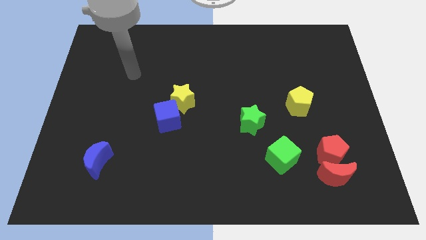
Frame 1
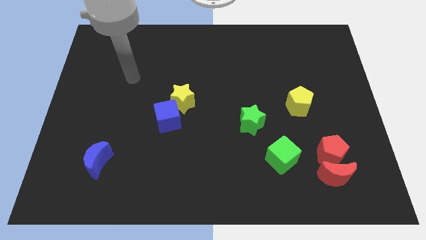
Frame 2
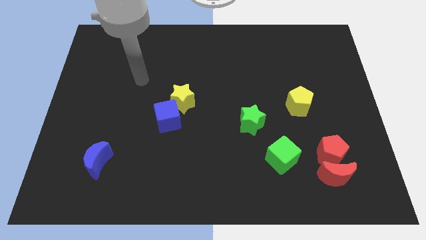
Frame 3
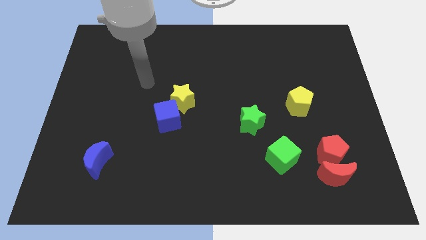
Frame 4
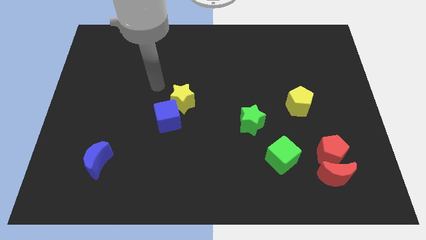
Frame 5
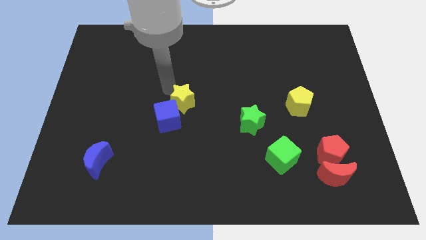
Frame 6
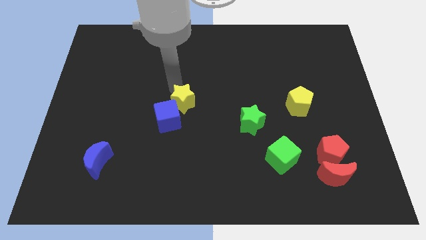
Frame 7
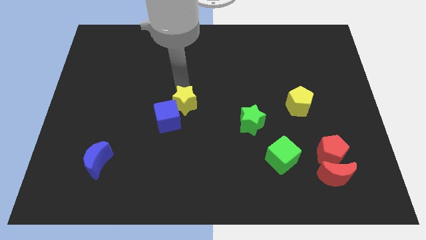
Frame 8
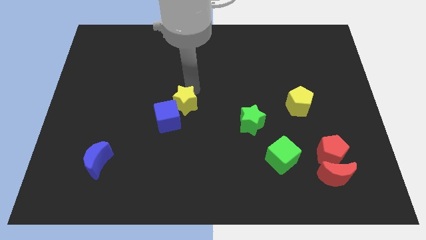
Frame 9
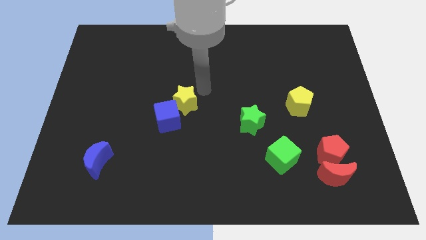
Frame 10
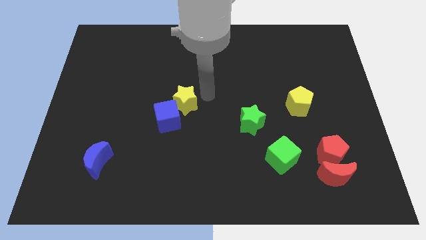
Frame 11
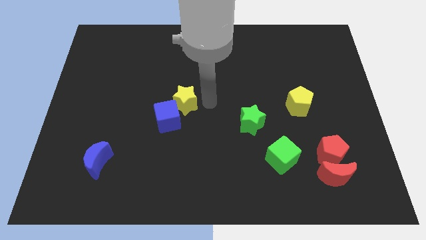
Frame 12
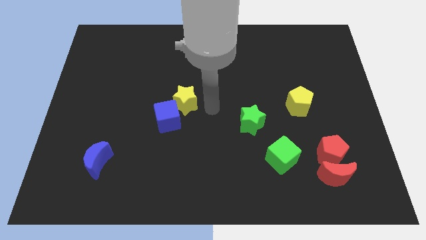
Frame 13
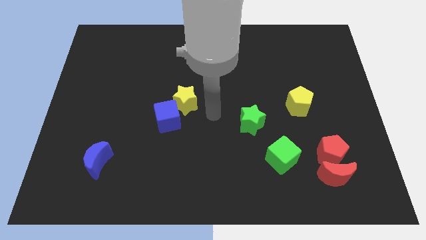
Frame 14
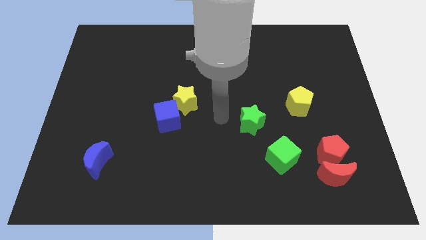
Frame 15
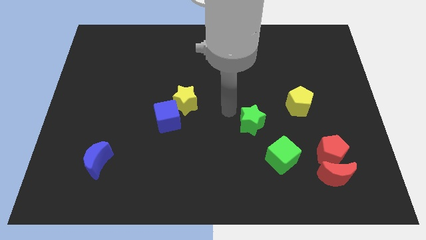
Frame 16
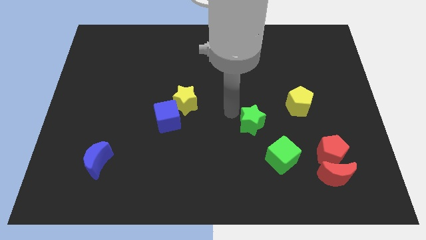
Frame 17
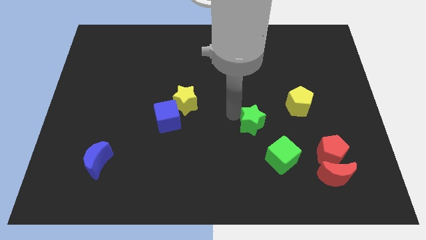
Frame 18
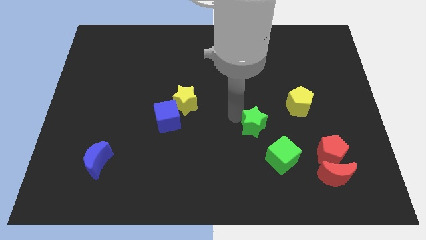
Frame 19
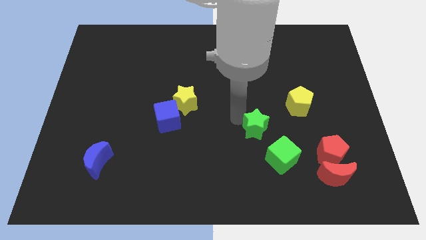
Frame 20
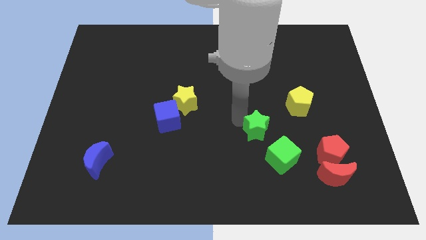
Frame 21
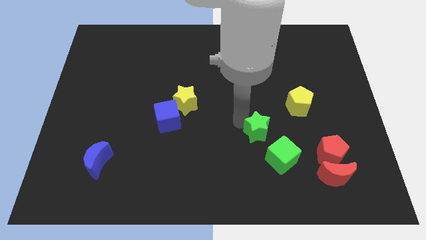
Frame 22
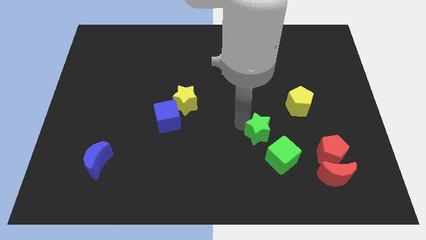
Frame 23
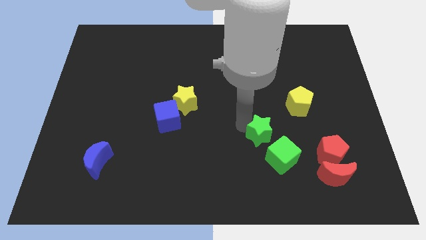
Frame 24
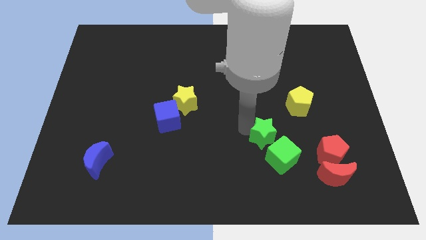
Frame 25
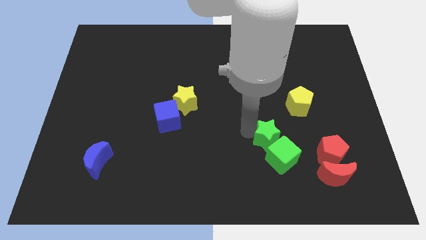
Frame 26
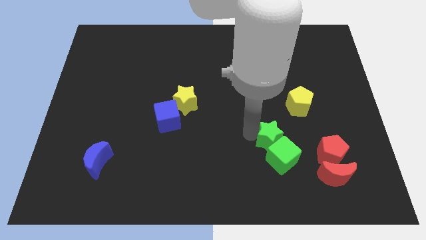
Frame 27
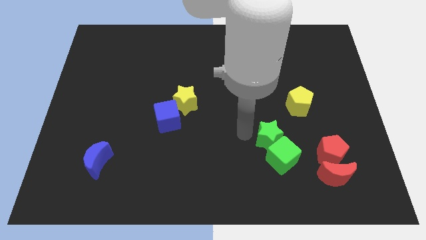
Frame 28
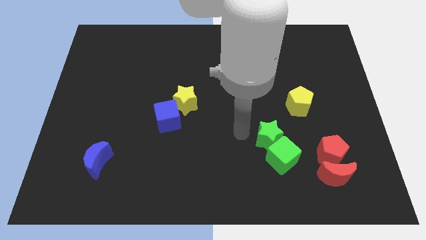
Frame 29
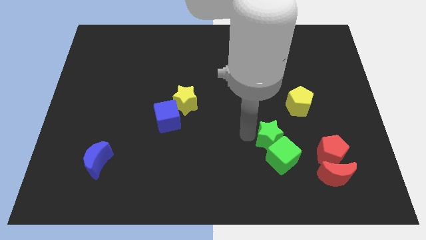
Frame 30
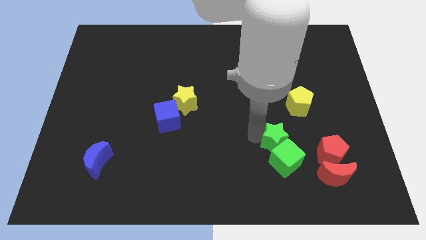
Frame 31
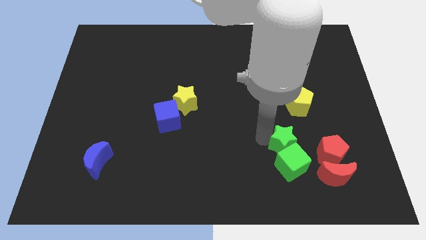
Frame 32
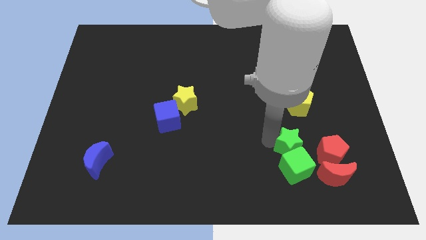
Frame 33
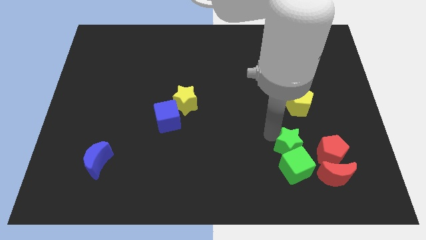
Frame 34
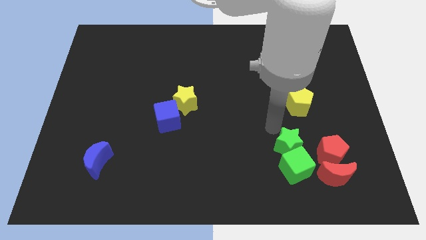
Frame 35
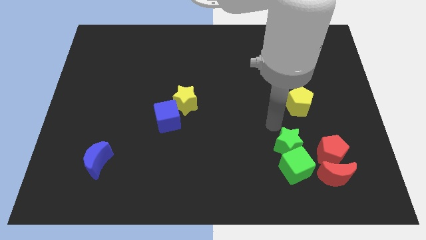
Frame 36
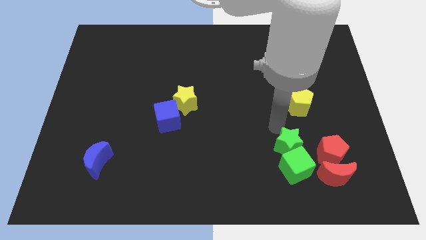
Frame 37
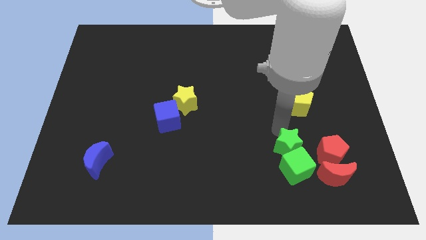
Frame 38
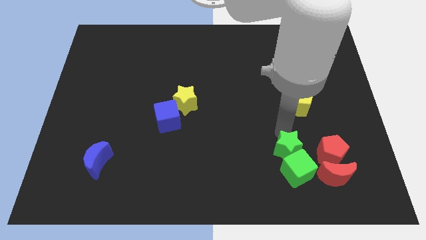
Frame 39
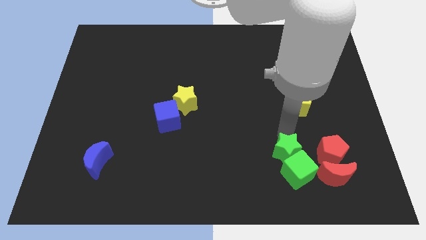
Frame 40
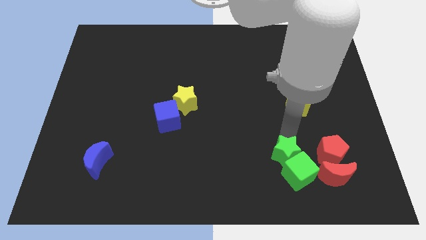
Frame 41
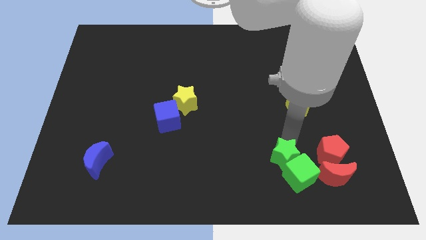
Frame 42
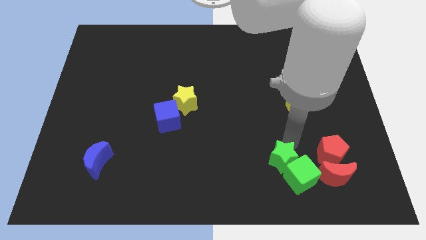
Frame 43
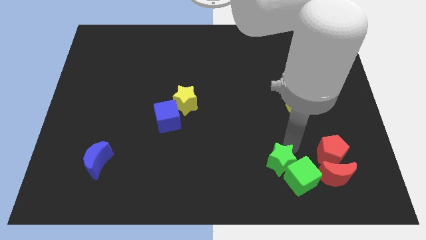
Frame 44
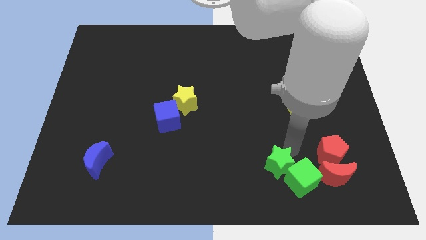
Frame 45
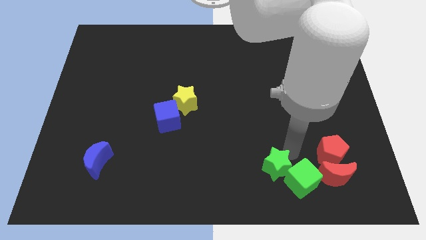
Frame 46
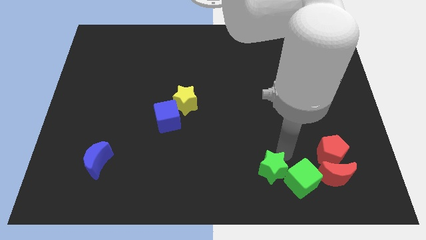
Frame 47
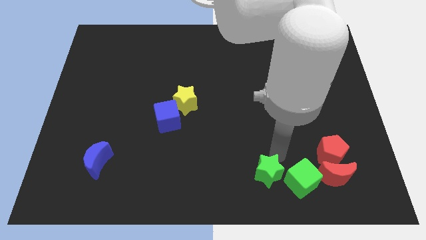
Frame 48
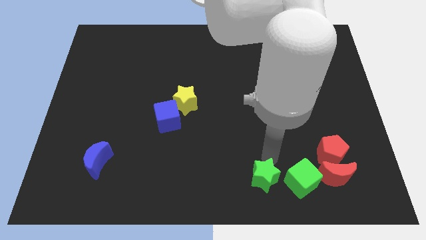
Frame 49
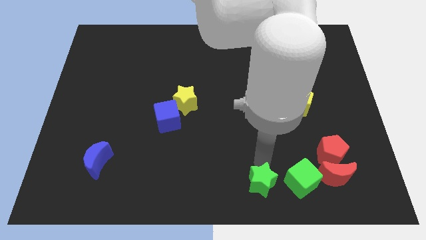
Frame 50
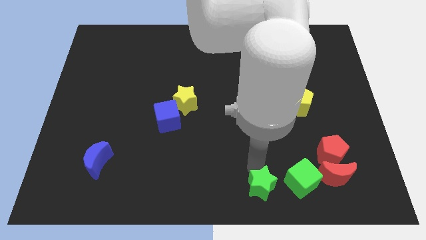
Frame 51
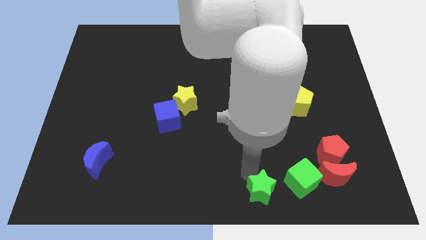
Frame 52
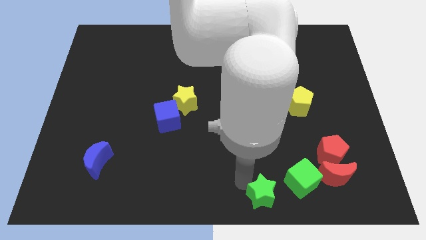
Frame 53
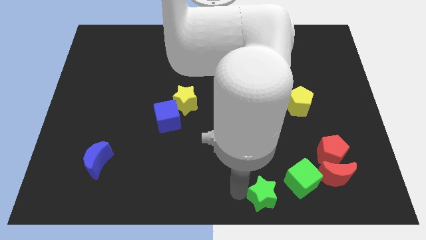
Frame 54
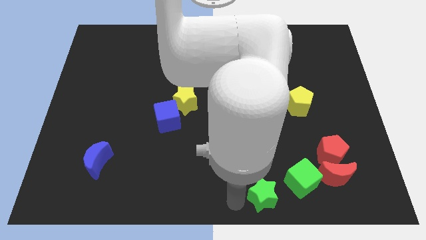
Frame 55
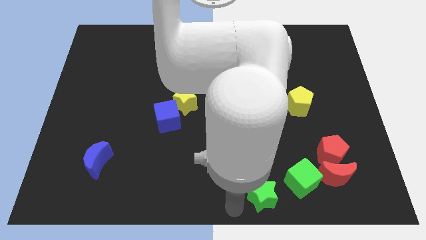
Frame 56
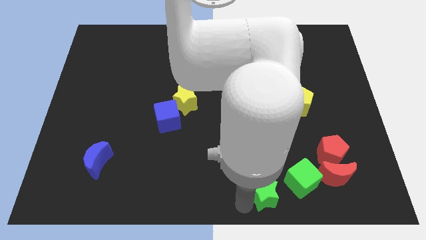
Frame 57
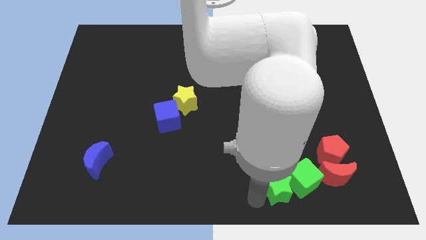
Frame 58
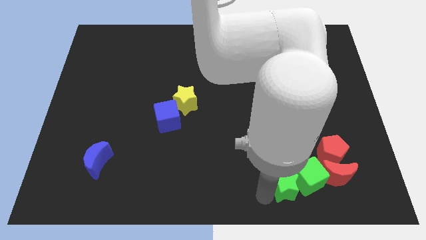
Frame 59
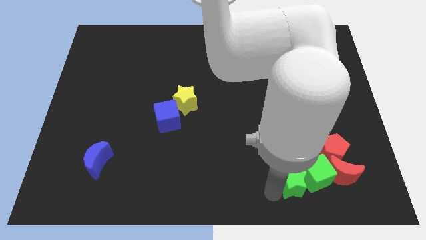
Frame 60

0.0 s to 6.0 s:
slide the green star to the bottom left of the red pentagon

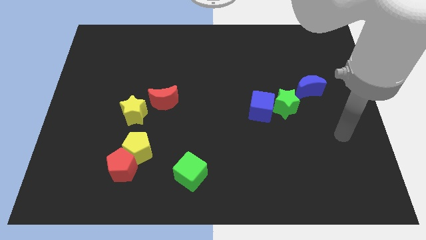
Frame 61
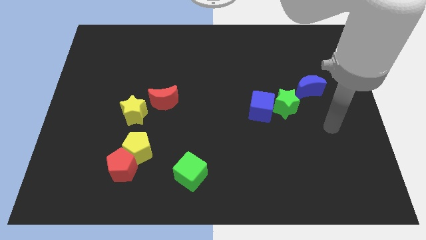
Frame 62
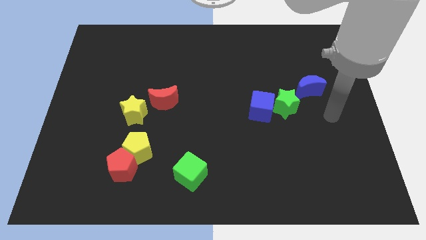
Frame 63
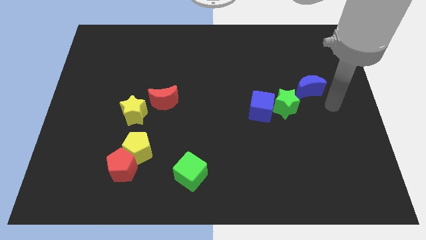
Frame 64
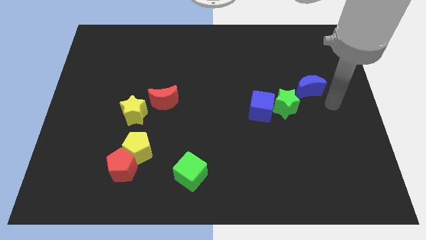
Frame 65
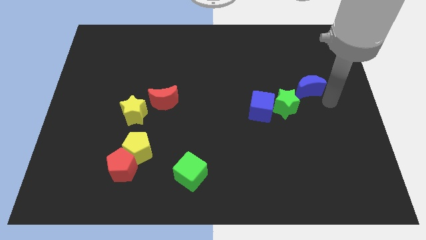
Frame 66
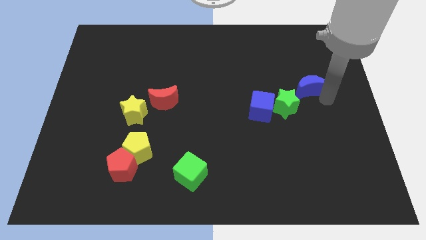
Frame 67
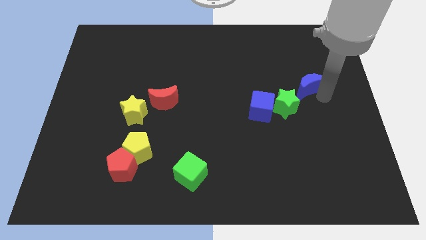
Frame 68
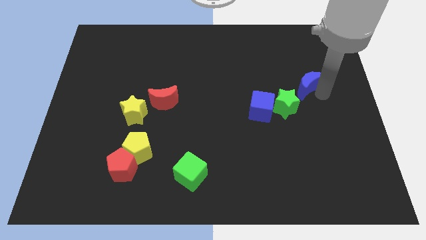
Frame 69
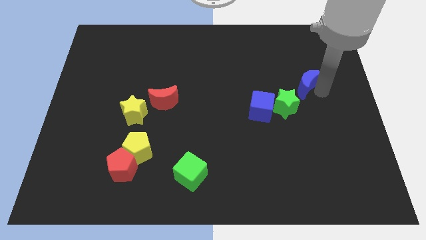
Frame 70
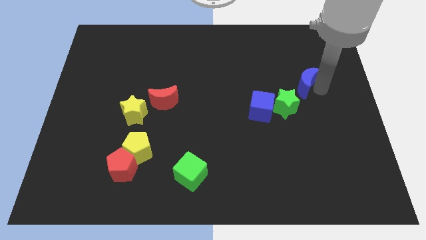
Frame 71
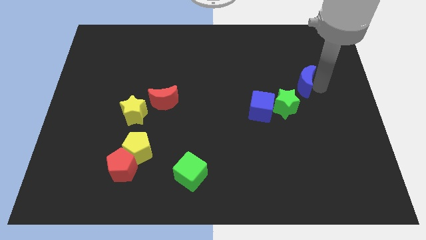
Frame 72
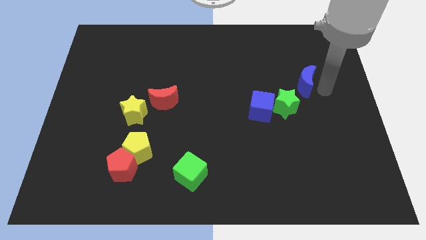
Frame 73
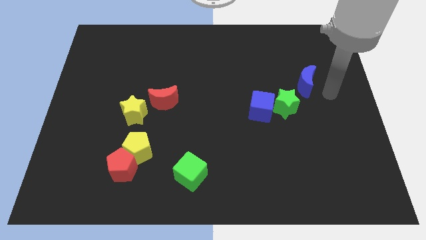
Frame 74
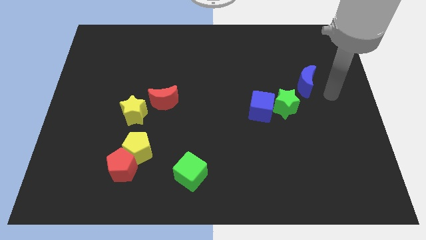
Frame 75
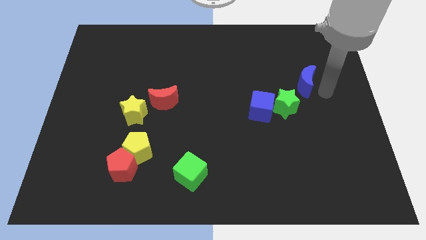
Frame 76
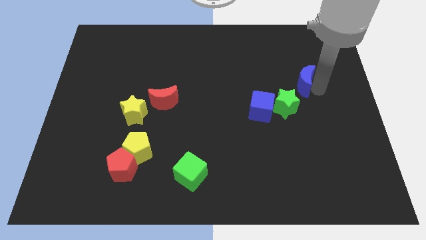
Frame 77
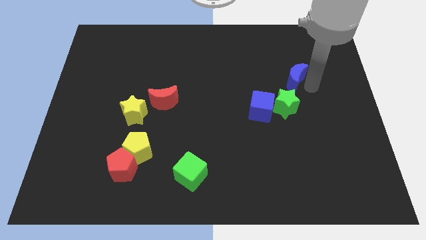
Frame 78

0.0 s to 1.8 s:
put the blue moon to the top of the green star

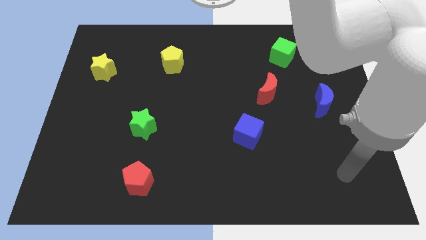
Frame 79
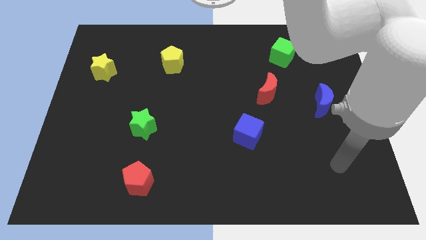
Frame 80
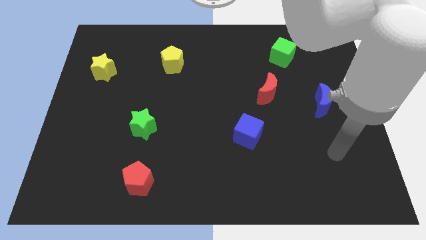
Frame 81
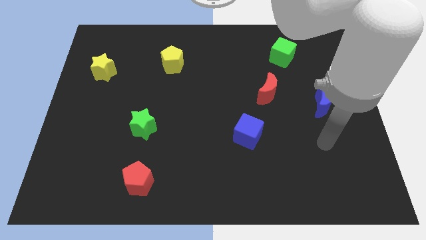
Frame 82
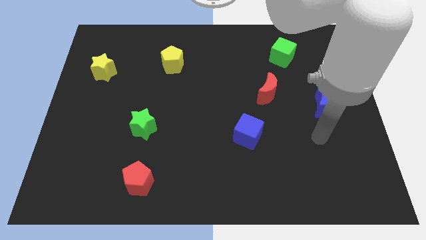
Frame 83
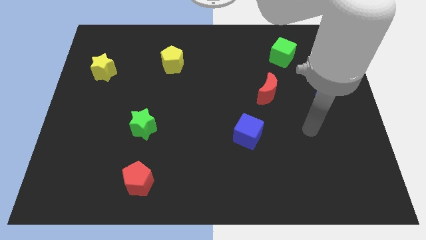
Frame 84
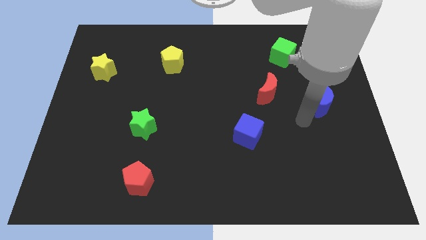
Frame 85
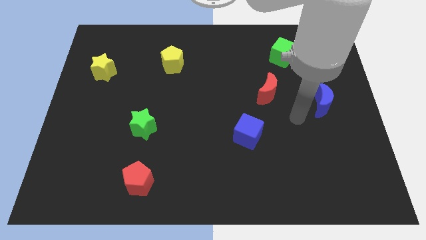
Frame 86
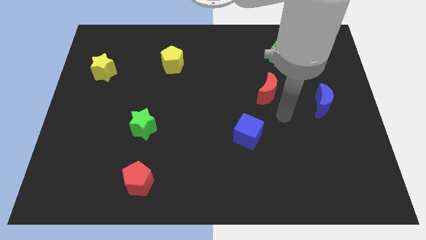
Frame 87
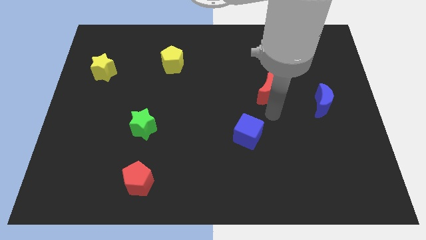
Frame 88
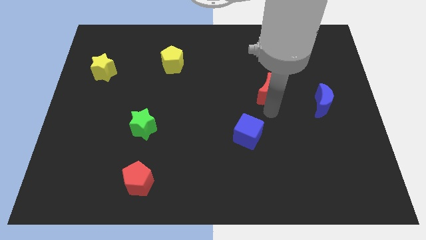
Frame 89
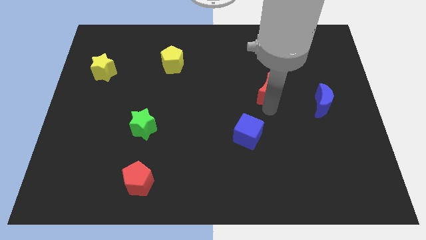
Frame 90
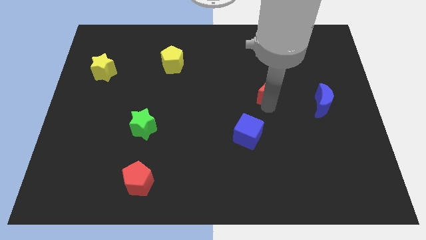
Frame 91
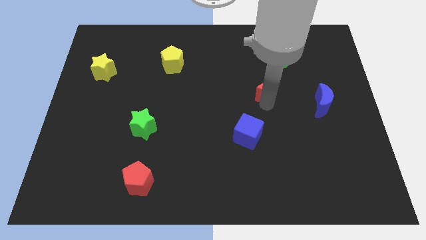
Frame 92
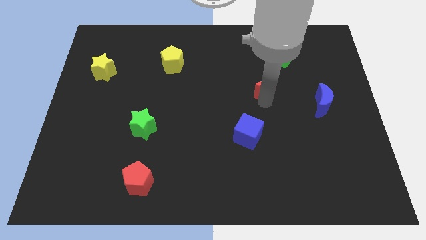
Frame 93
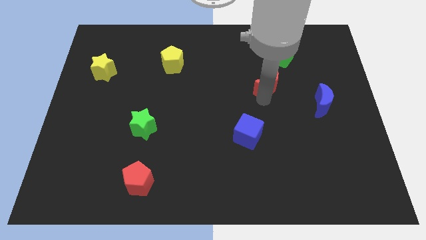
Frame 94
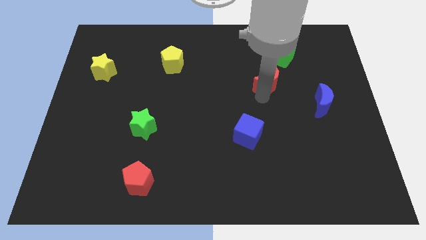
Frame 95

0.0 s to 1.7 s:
put the red moon to the bottom left side of the green cube
